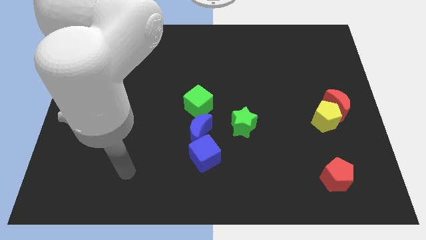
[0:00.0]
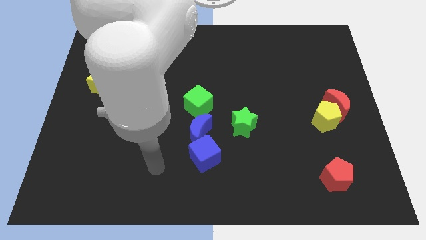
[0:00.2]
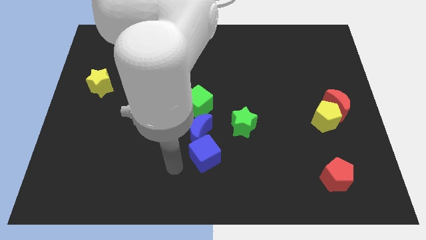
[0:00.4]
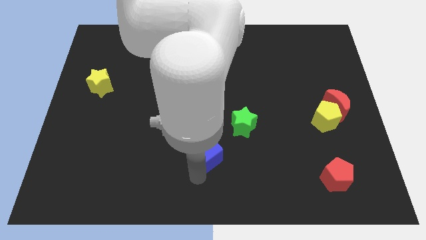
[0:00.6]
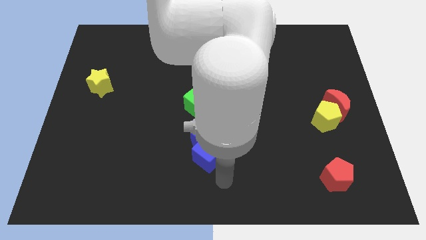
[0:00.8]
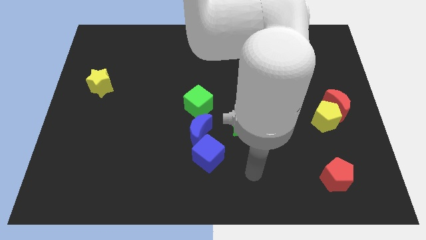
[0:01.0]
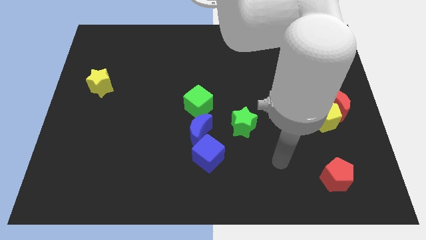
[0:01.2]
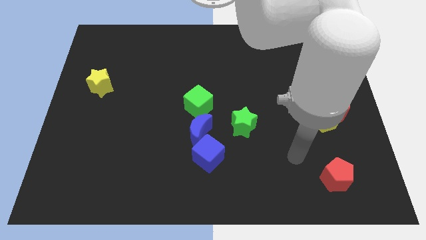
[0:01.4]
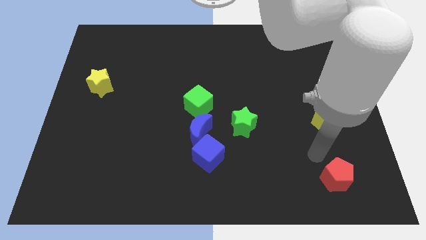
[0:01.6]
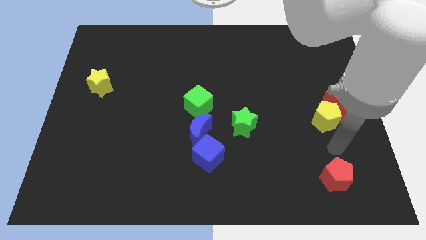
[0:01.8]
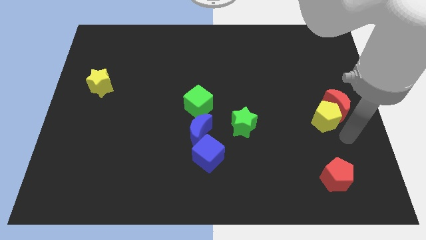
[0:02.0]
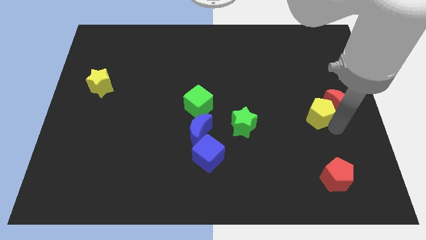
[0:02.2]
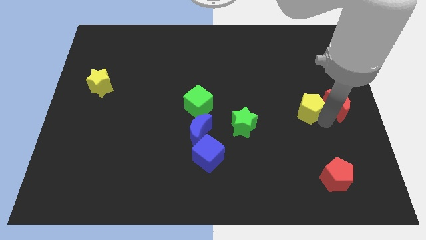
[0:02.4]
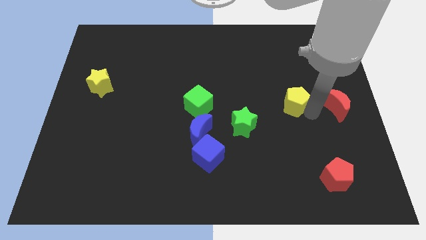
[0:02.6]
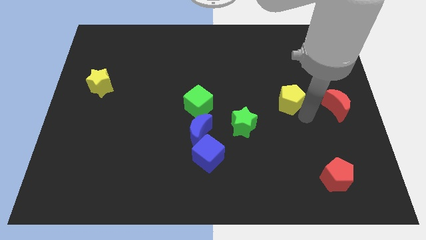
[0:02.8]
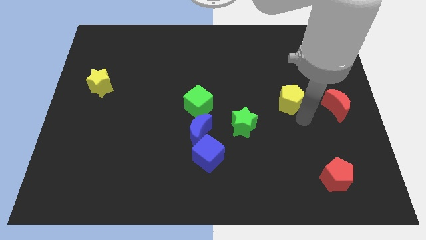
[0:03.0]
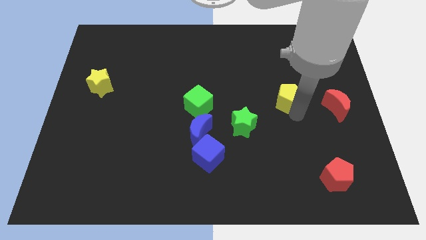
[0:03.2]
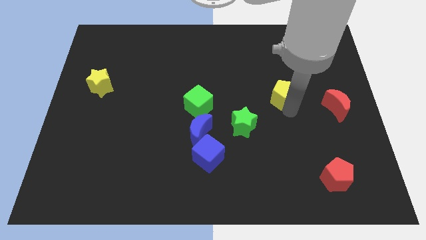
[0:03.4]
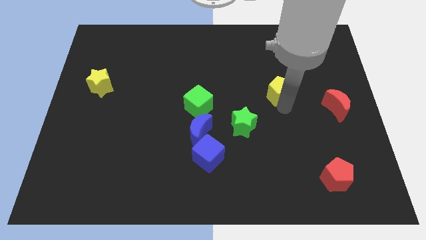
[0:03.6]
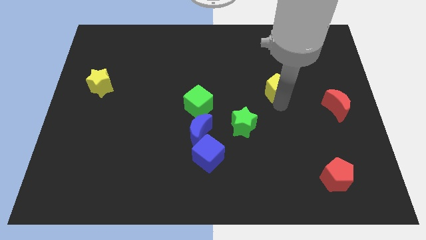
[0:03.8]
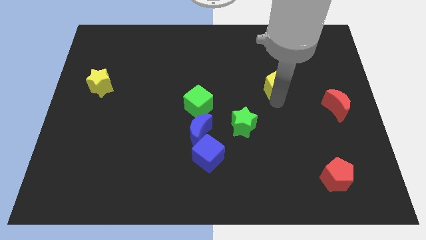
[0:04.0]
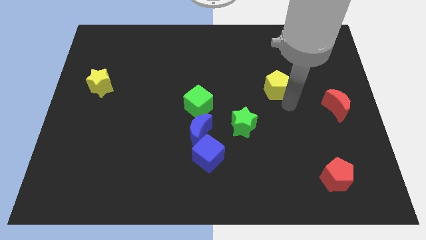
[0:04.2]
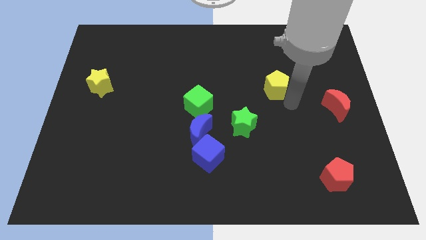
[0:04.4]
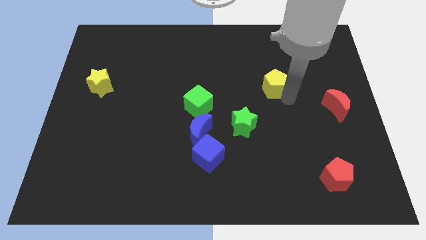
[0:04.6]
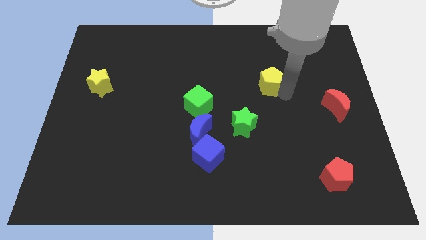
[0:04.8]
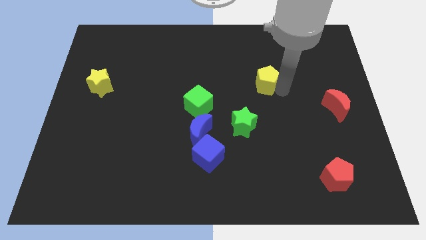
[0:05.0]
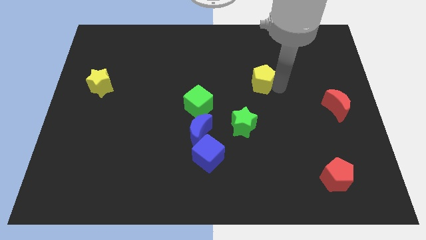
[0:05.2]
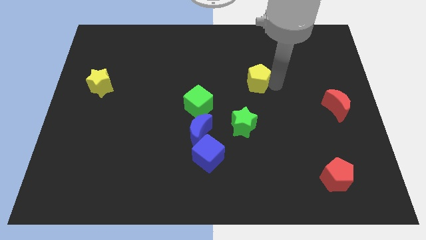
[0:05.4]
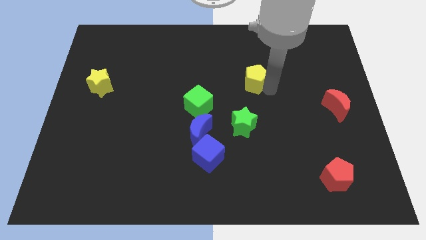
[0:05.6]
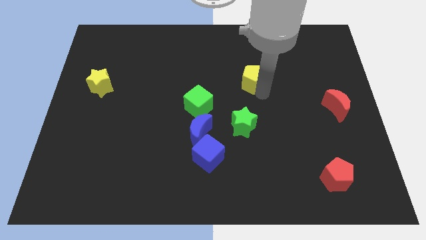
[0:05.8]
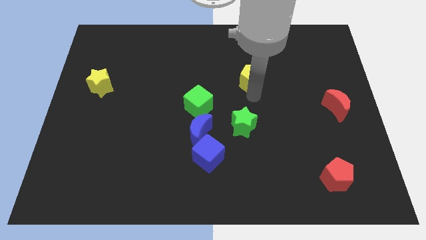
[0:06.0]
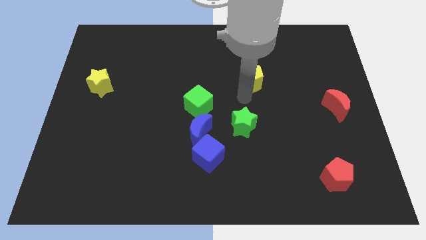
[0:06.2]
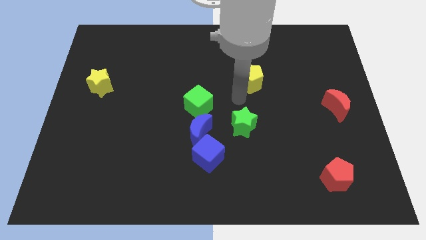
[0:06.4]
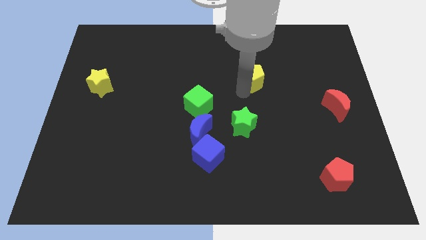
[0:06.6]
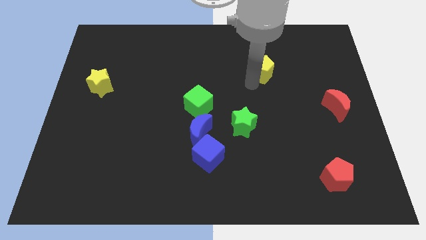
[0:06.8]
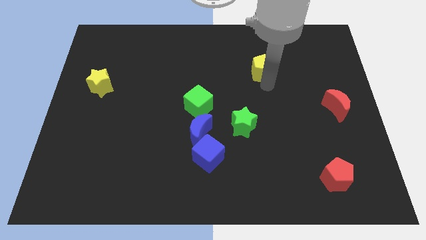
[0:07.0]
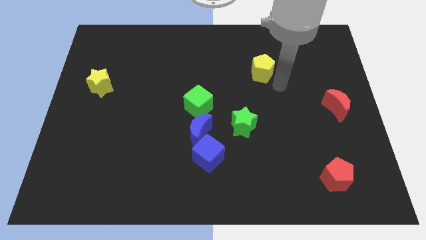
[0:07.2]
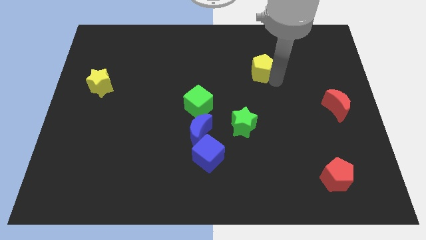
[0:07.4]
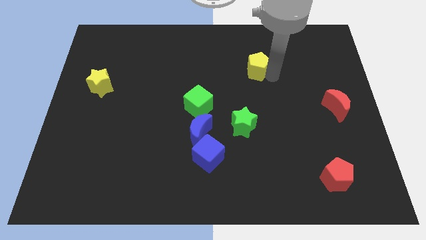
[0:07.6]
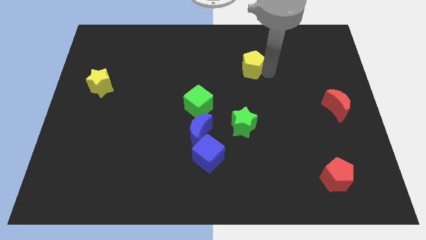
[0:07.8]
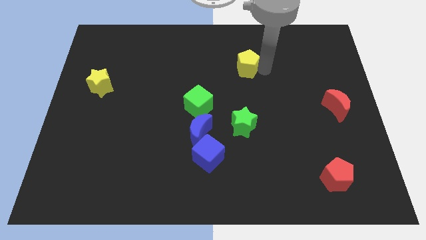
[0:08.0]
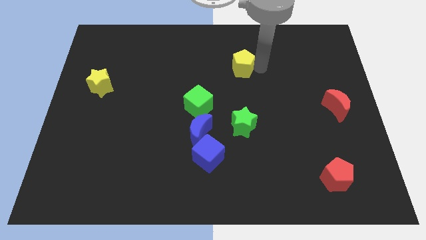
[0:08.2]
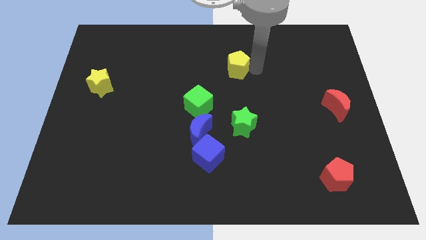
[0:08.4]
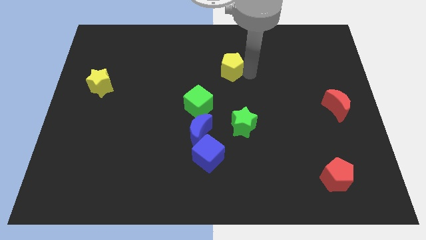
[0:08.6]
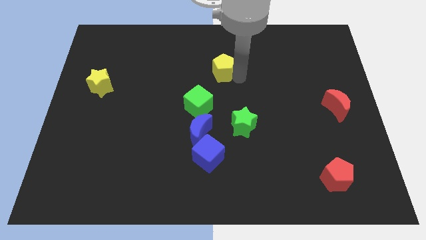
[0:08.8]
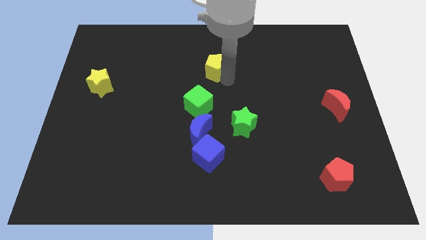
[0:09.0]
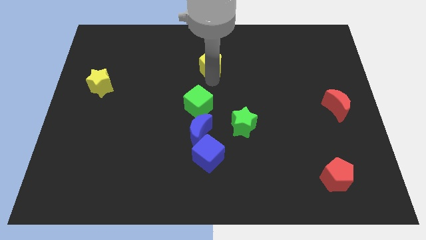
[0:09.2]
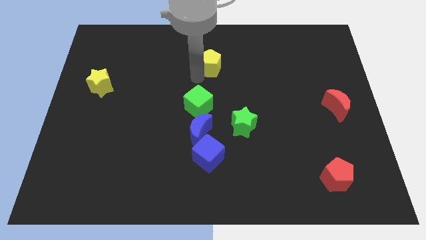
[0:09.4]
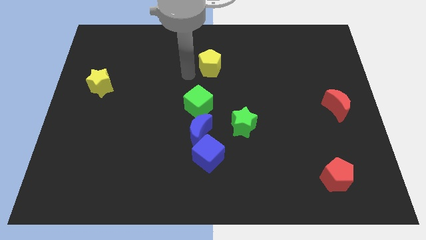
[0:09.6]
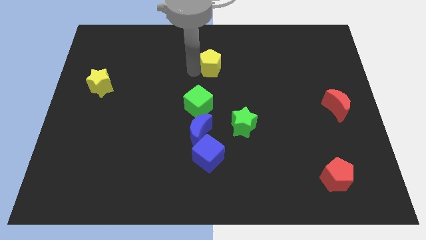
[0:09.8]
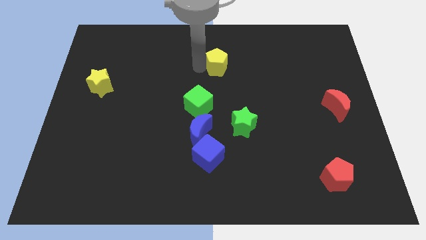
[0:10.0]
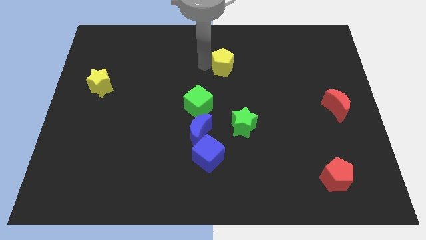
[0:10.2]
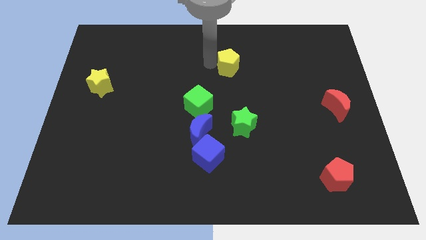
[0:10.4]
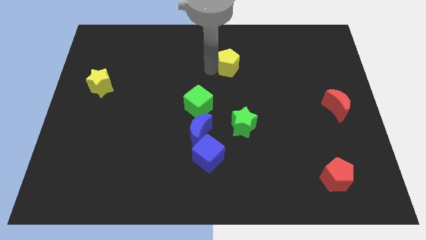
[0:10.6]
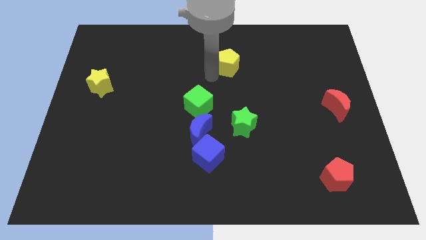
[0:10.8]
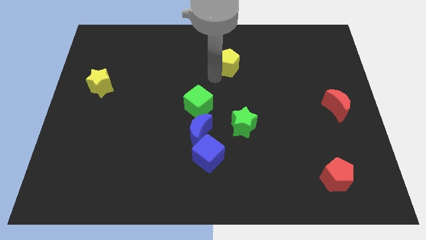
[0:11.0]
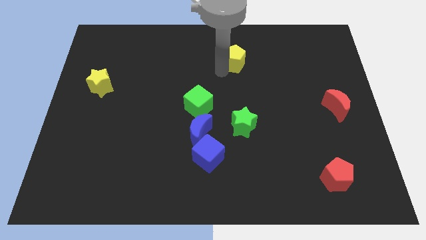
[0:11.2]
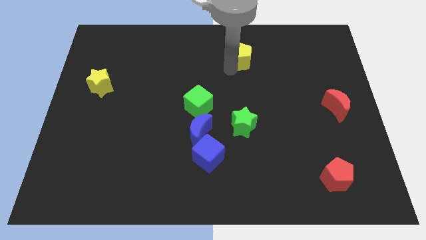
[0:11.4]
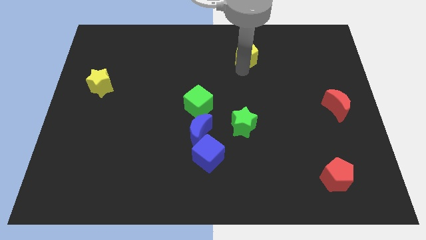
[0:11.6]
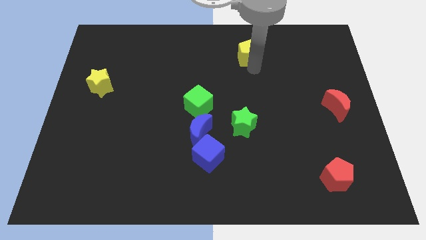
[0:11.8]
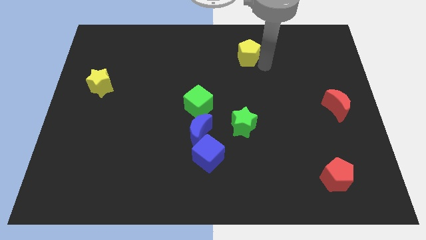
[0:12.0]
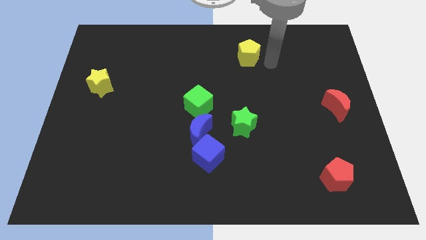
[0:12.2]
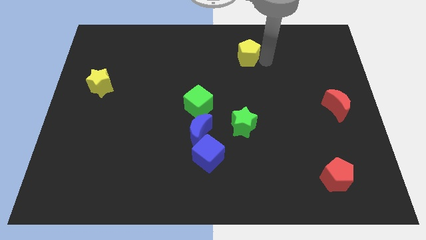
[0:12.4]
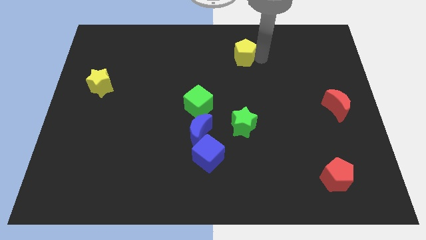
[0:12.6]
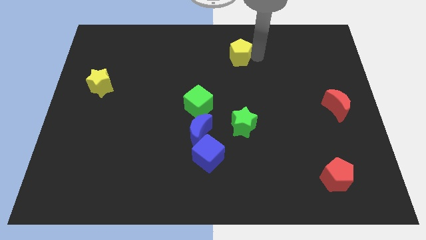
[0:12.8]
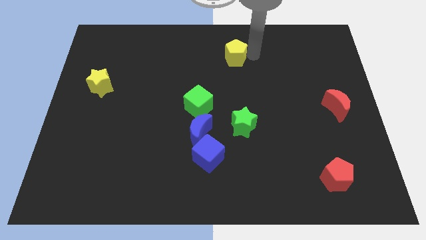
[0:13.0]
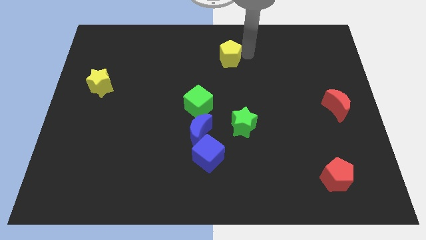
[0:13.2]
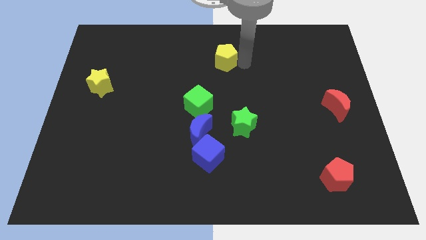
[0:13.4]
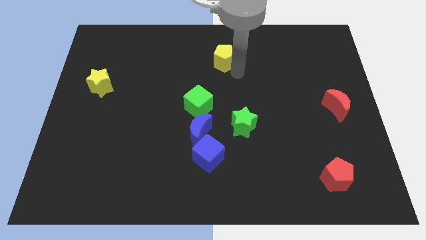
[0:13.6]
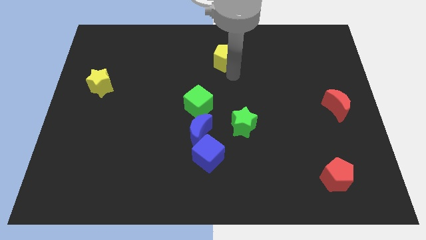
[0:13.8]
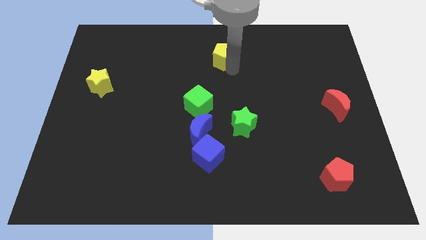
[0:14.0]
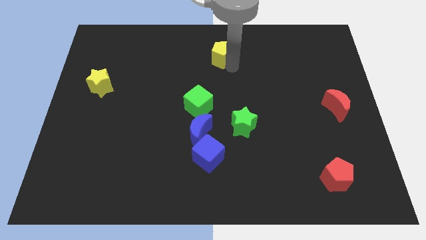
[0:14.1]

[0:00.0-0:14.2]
put the yellow pentagon to the towards your base
